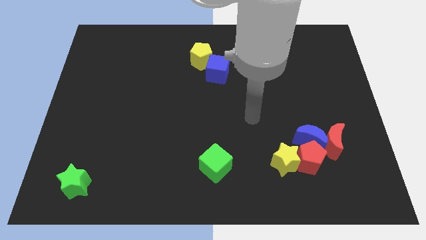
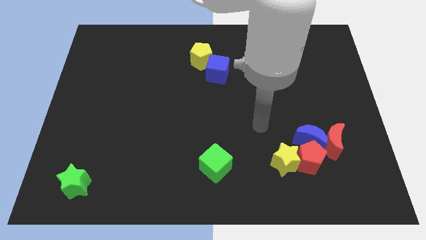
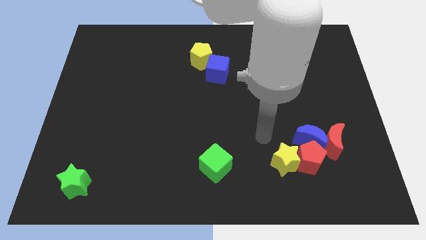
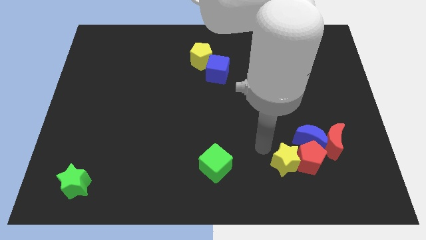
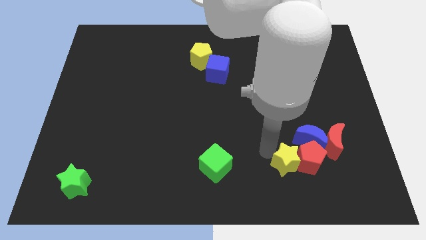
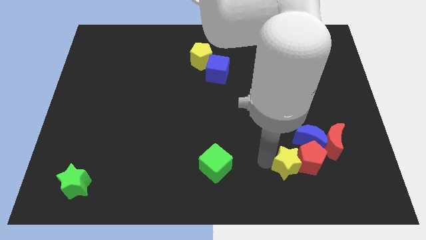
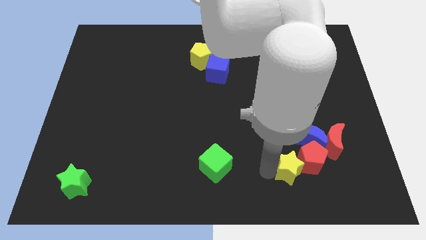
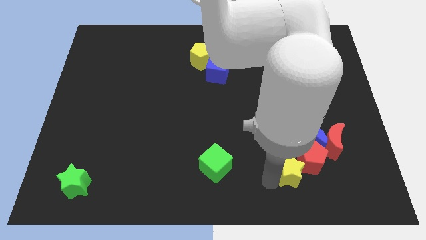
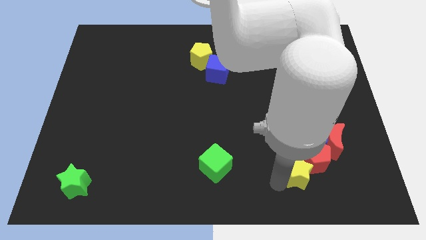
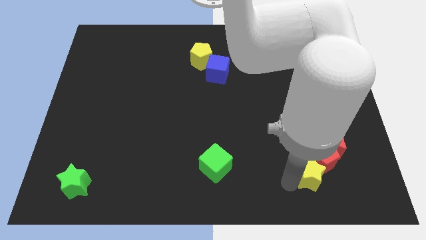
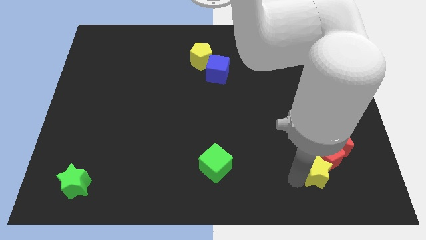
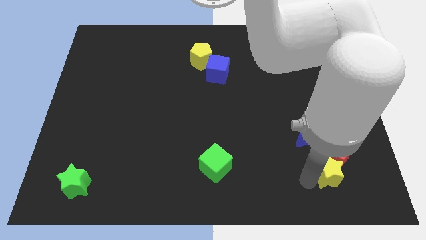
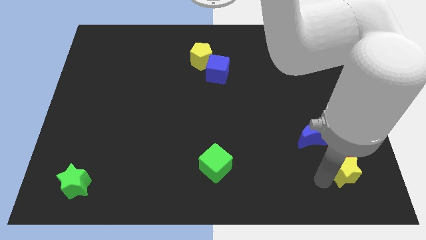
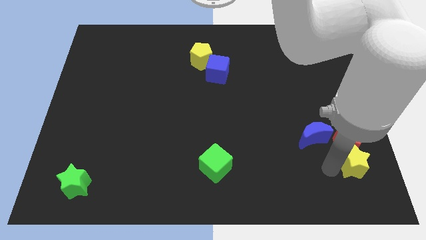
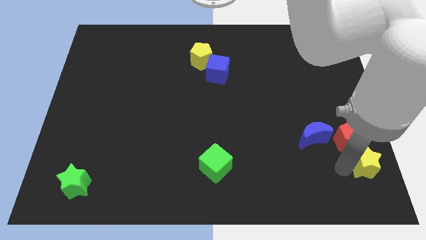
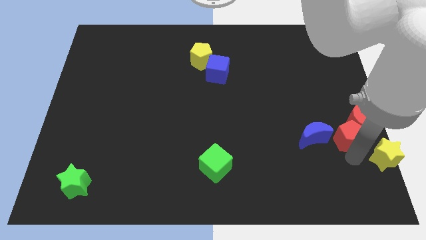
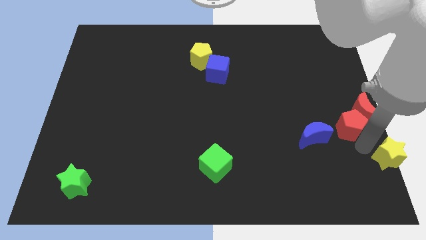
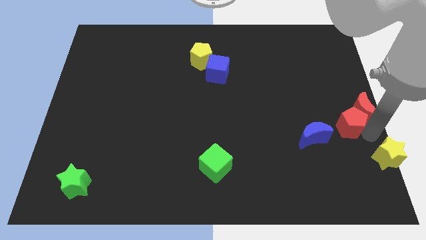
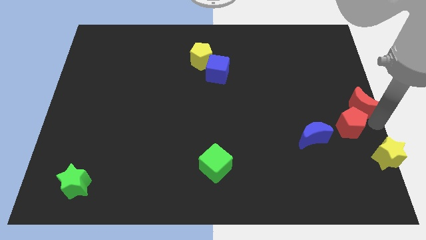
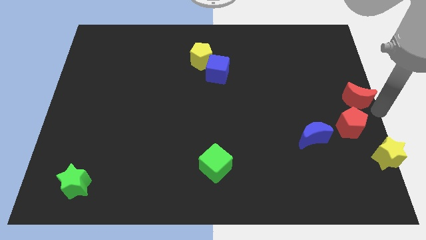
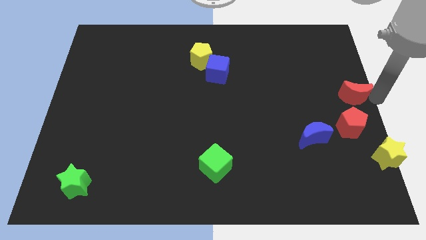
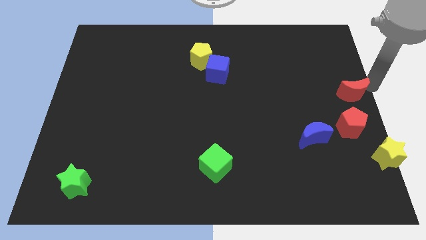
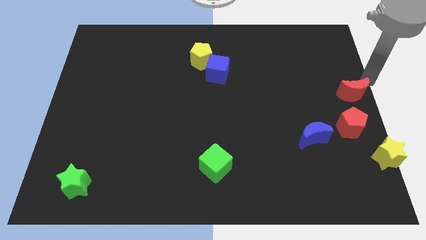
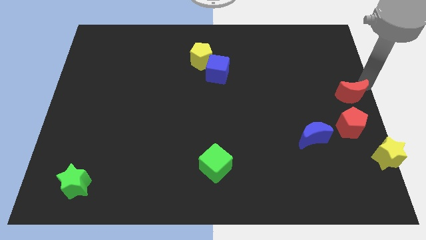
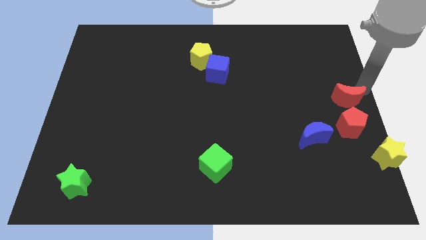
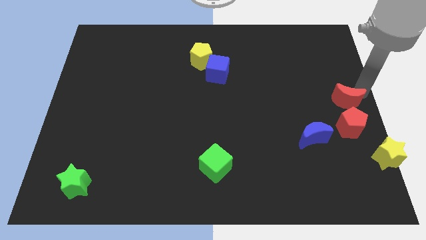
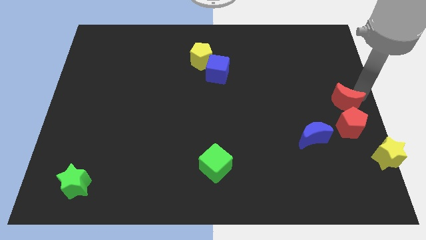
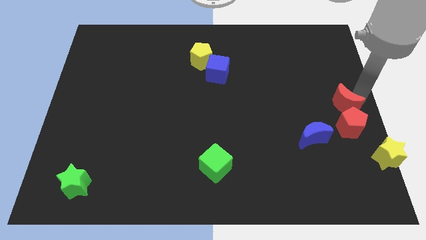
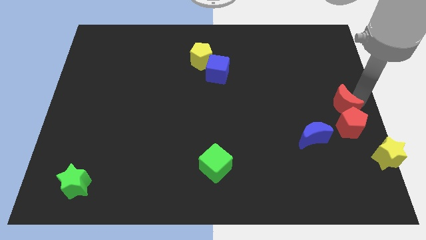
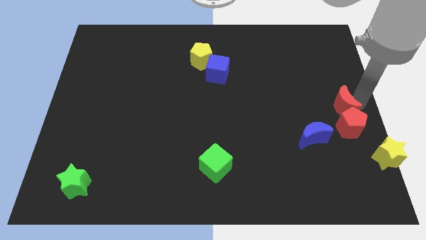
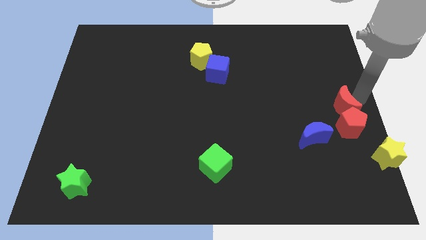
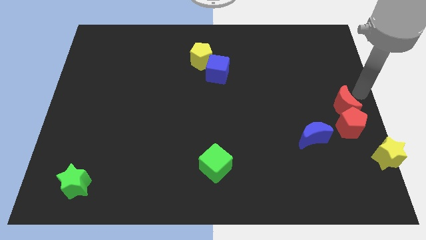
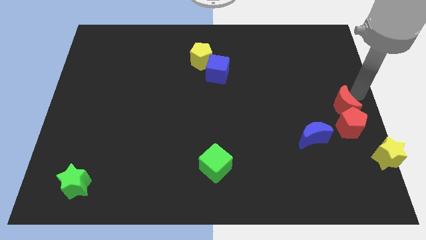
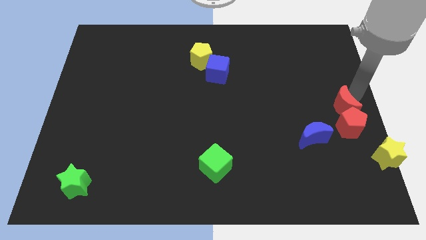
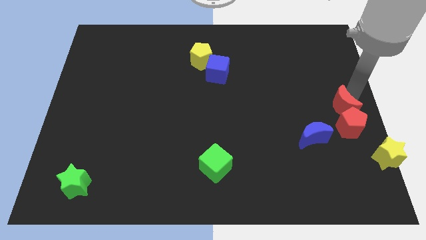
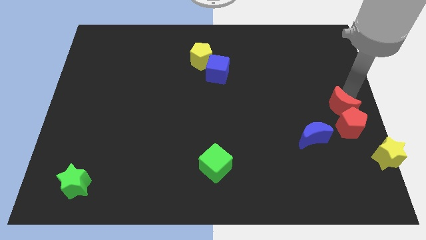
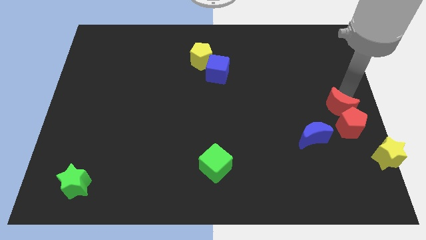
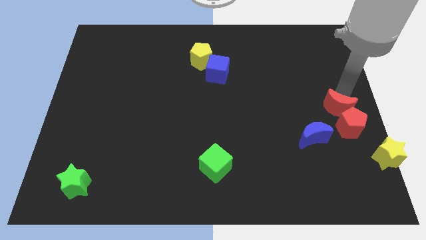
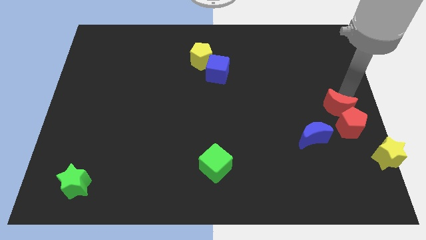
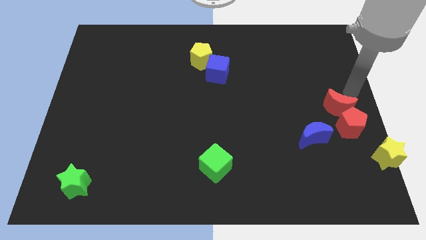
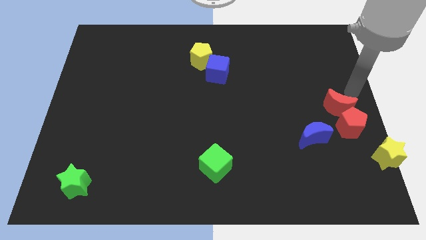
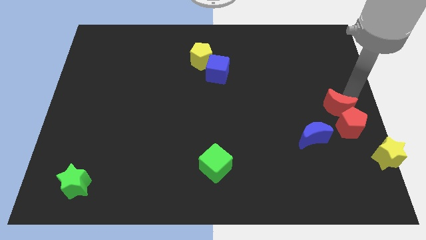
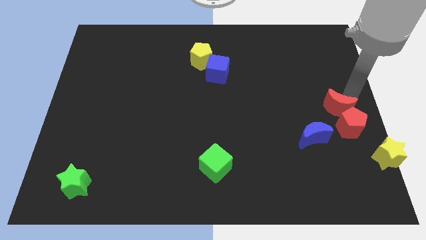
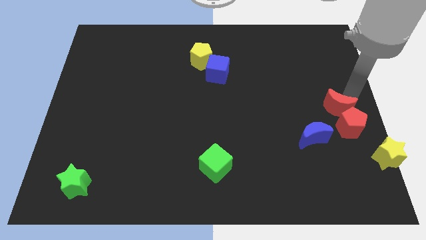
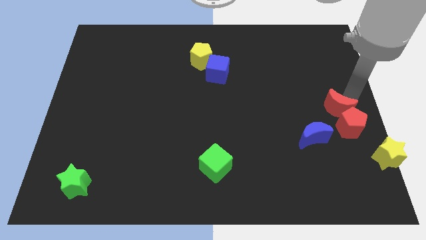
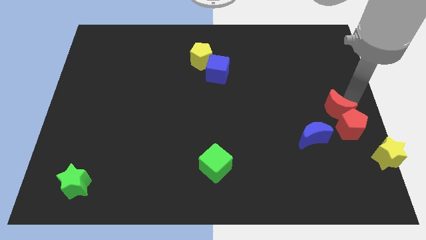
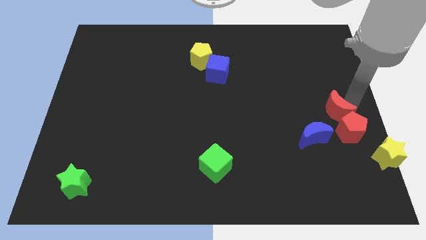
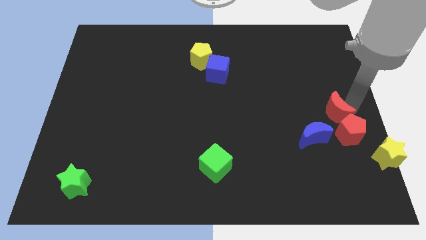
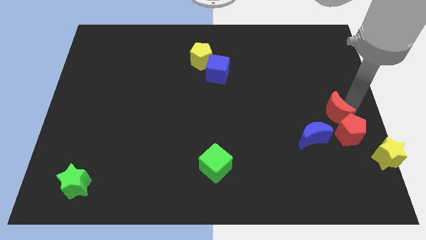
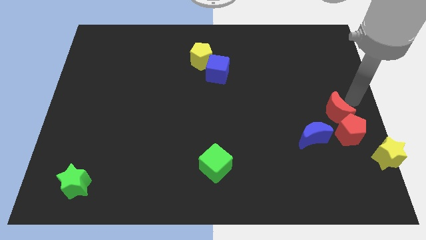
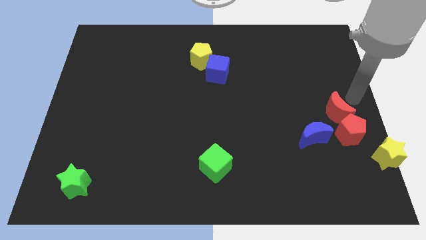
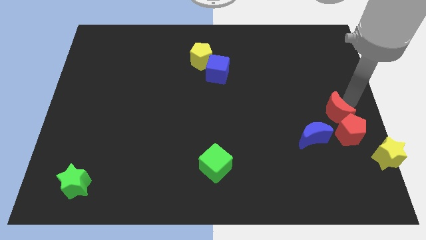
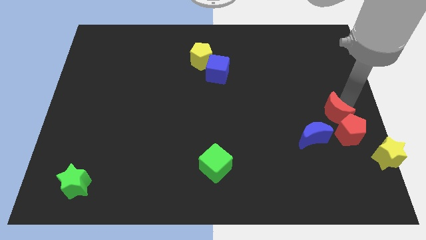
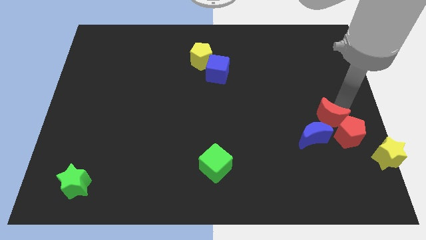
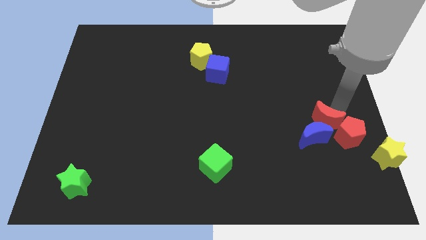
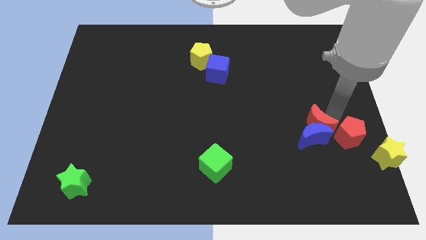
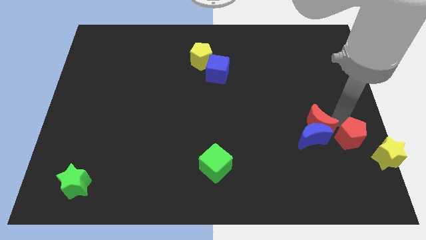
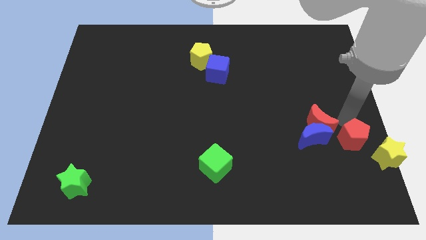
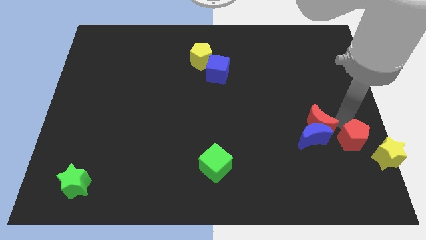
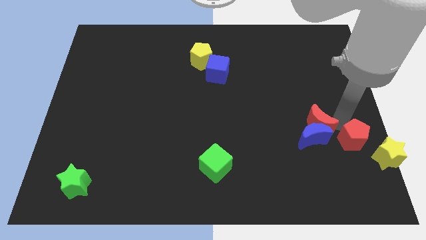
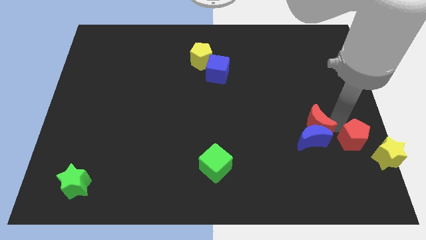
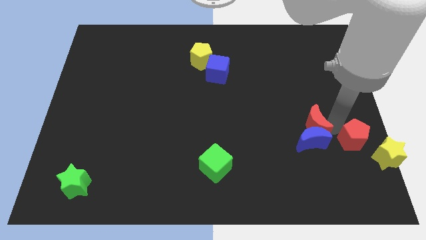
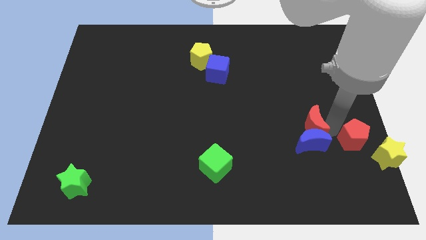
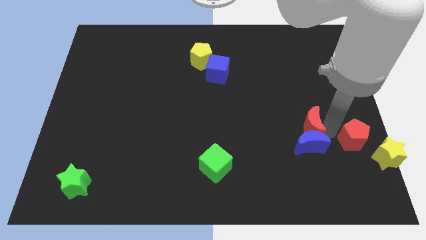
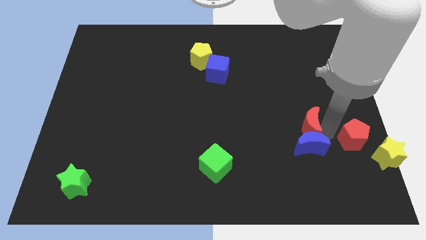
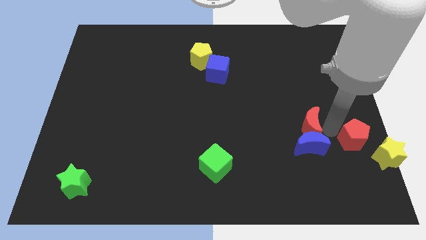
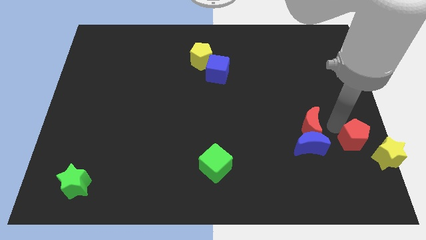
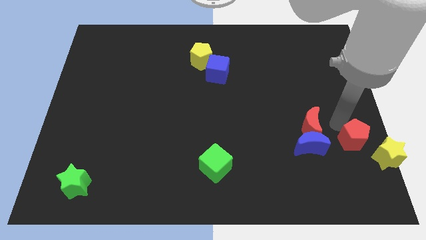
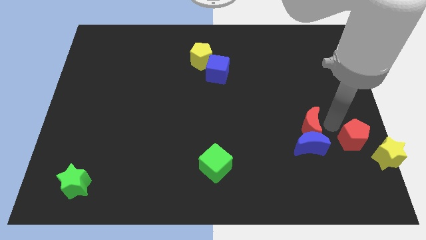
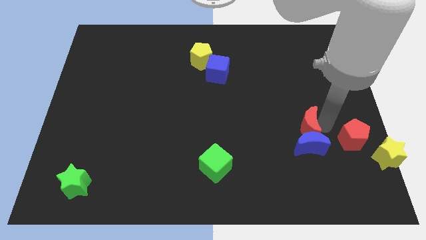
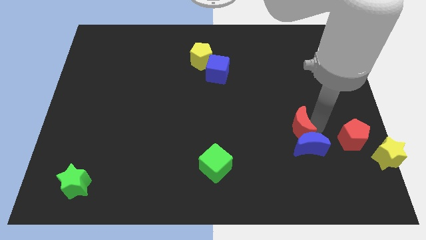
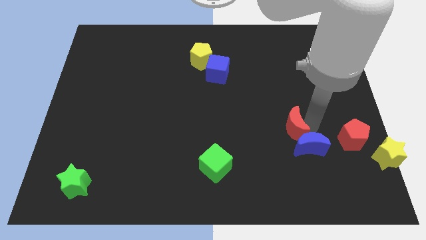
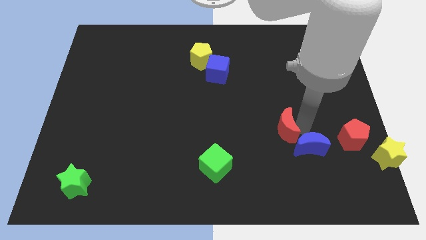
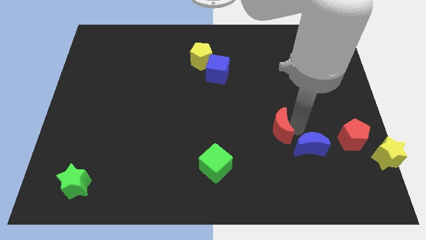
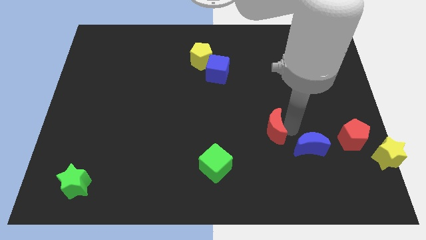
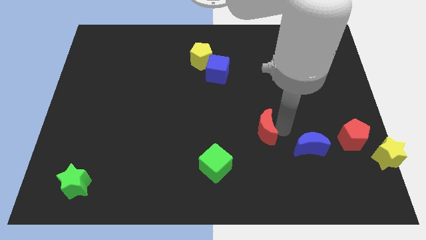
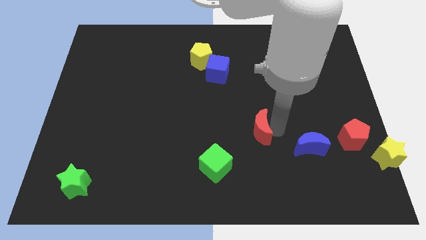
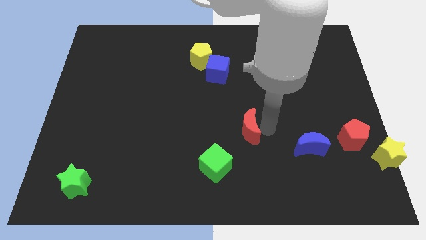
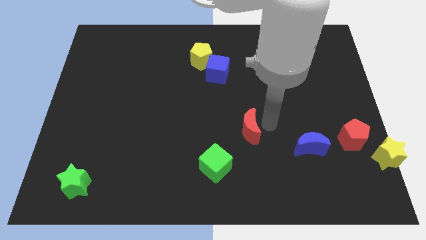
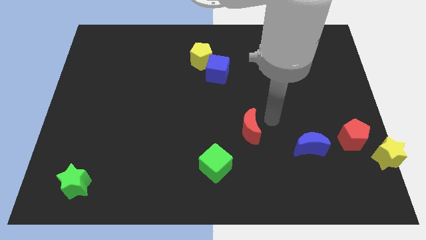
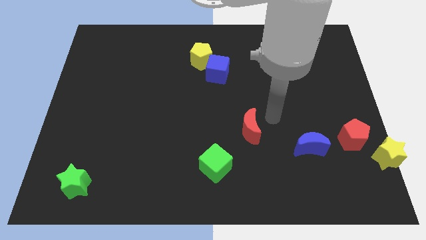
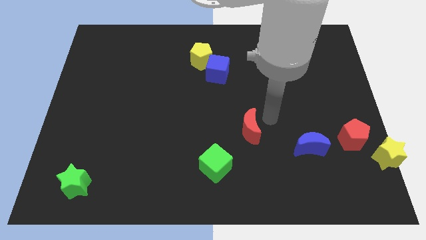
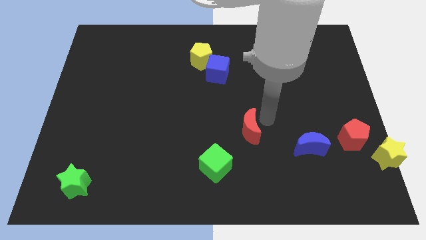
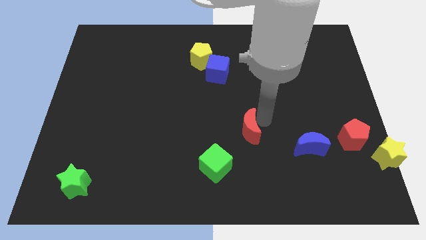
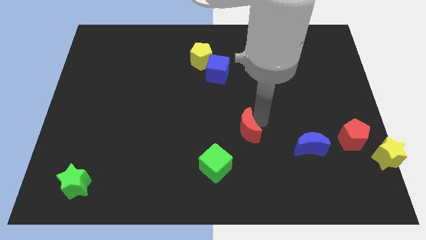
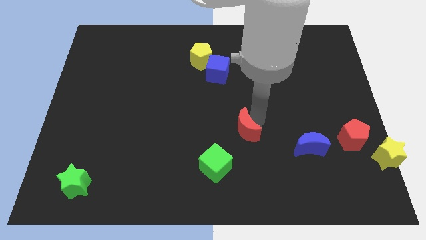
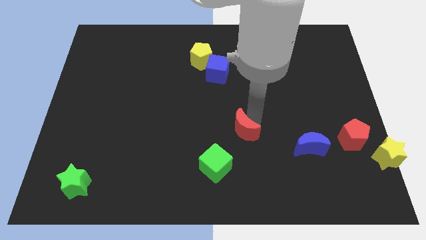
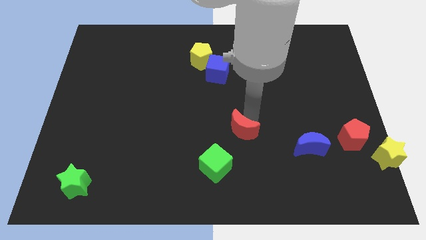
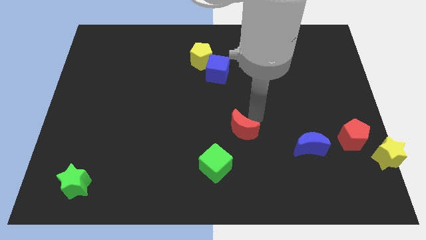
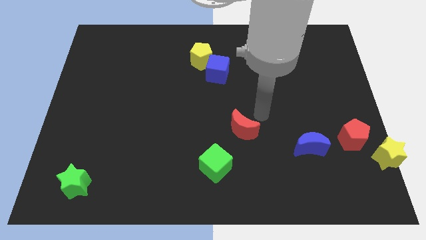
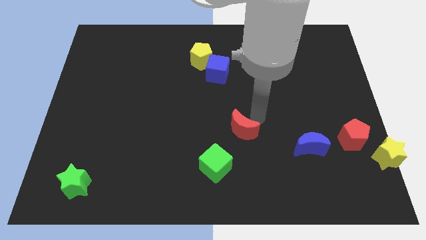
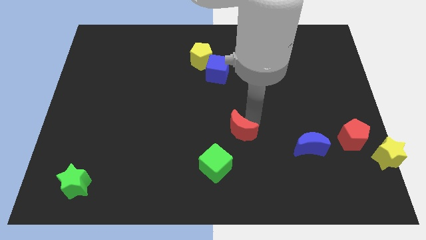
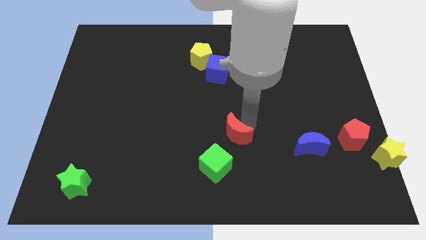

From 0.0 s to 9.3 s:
move the red moon left
